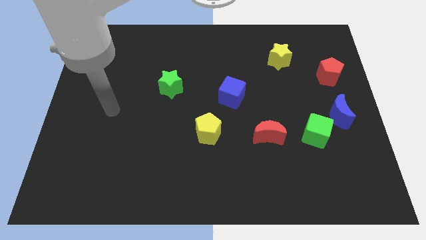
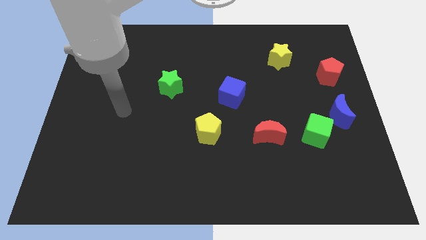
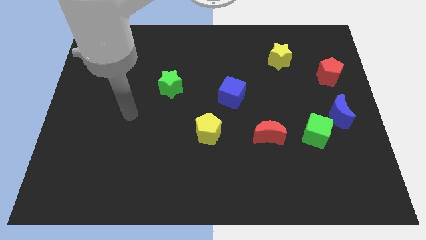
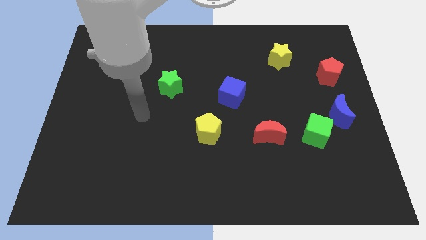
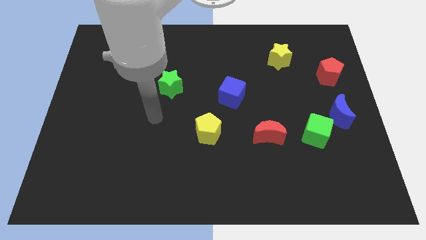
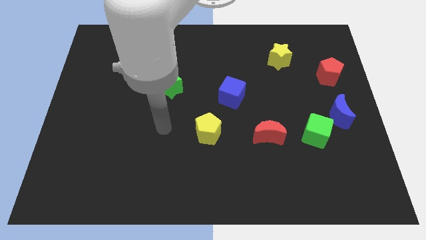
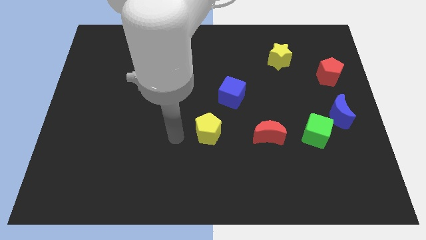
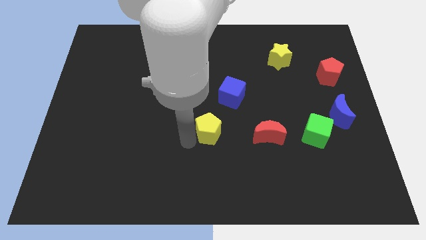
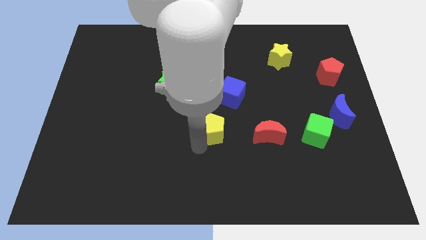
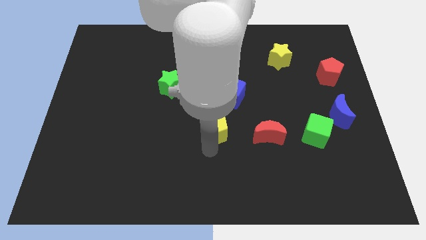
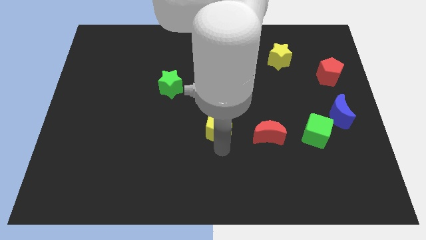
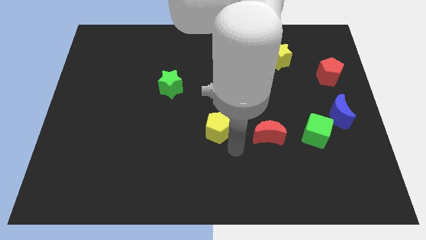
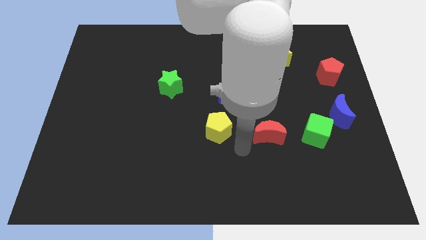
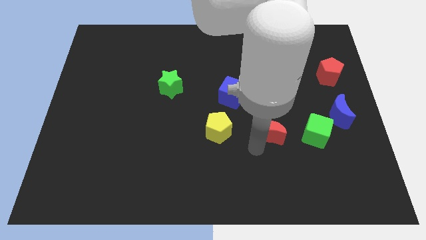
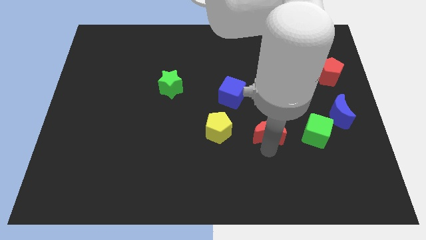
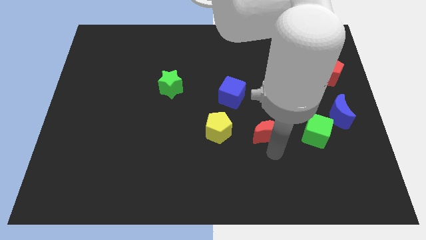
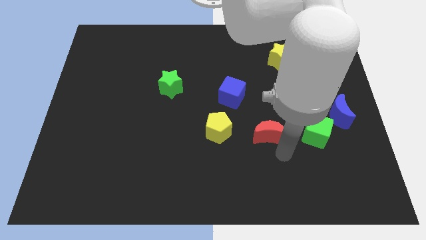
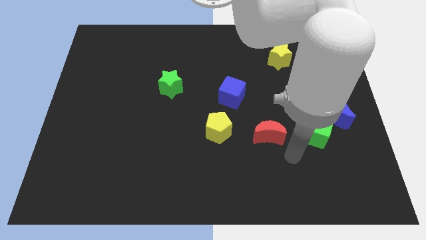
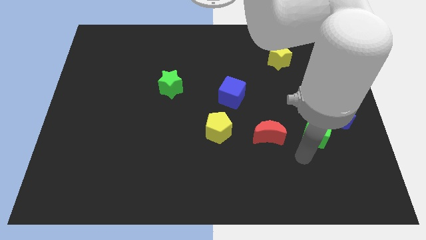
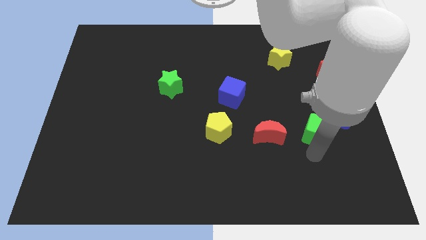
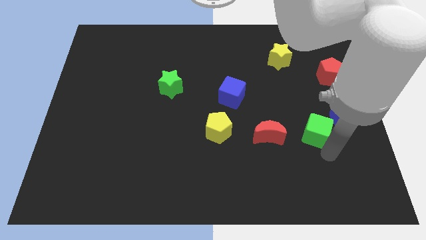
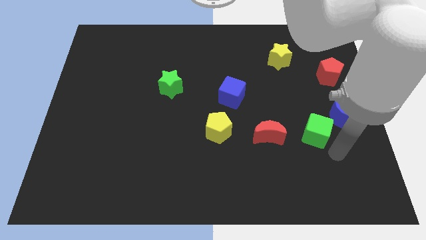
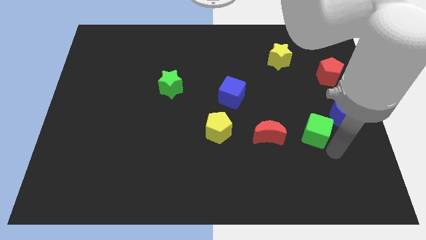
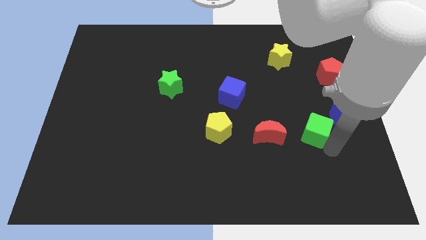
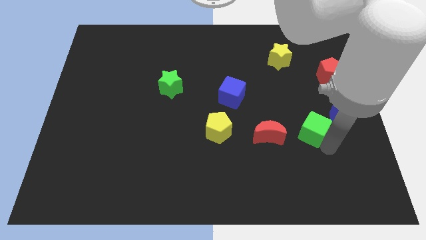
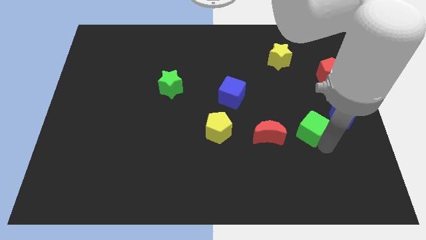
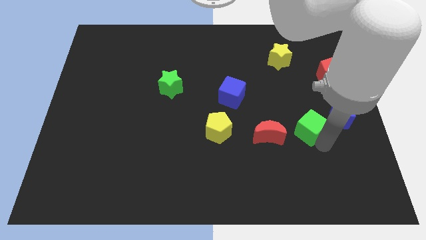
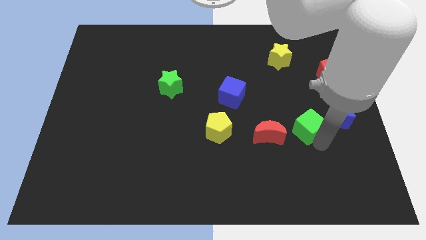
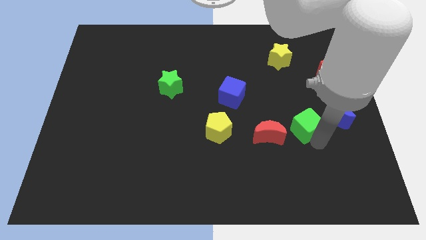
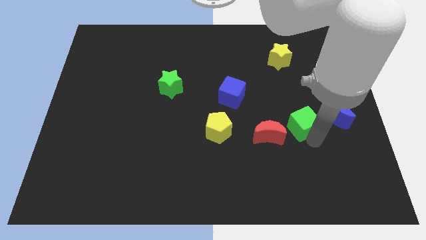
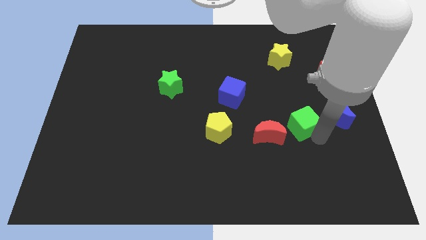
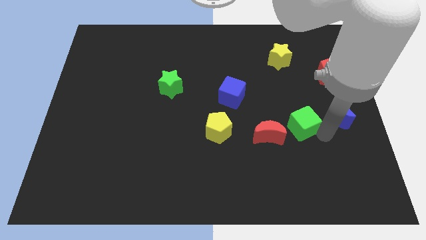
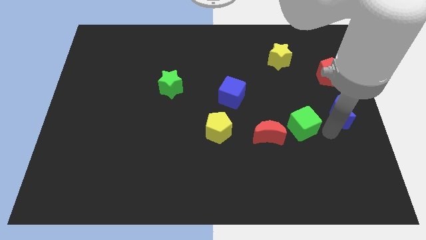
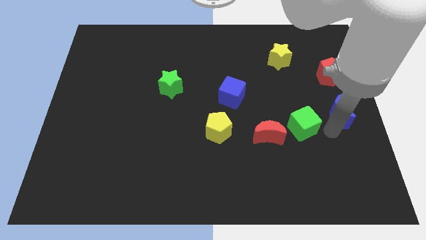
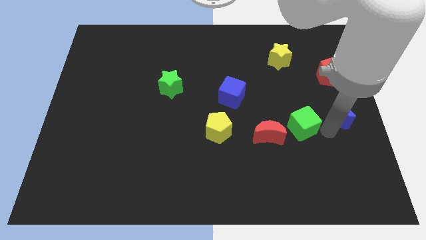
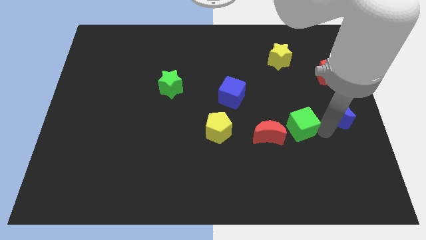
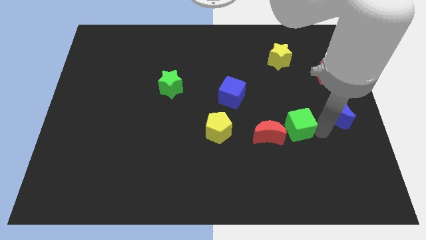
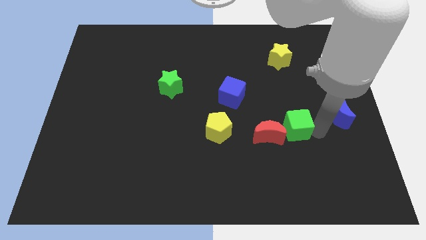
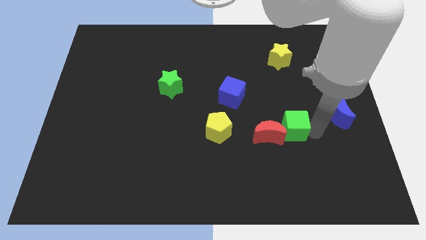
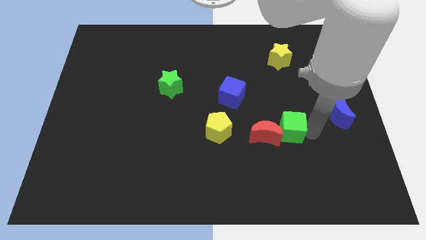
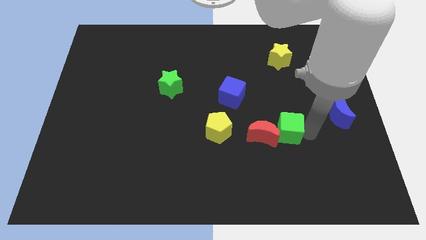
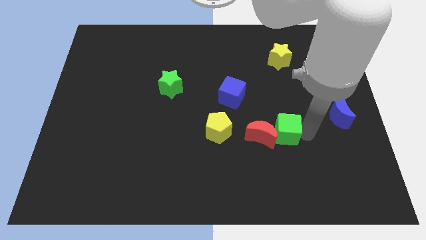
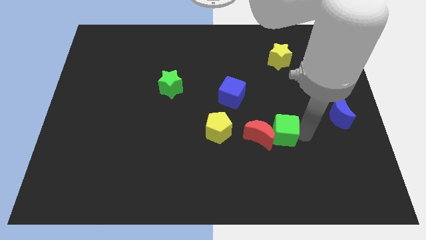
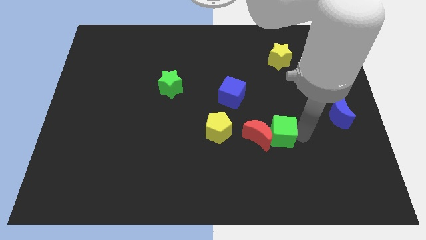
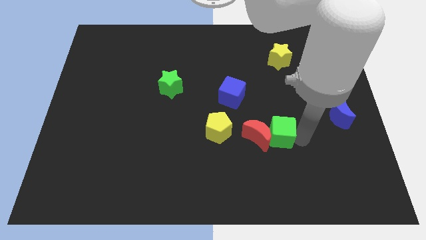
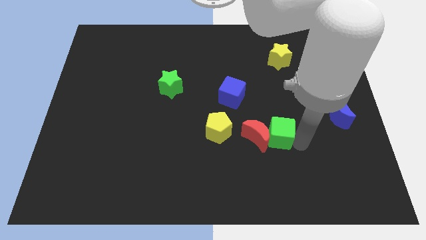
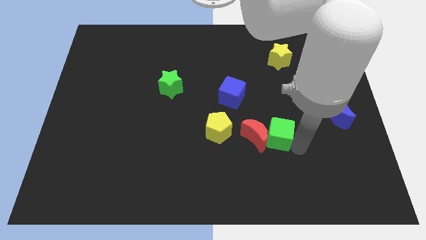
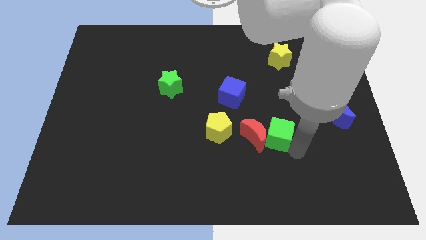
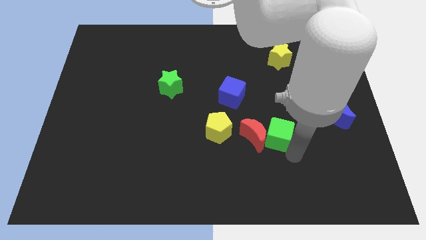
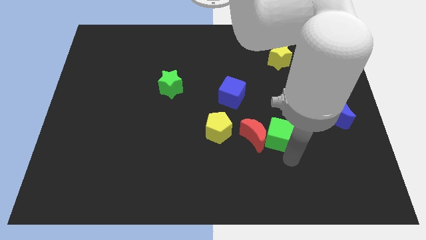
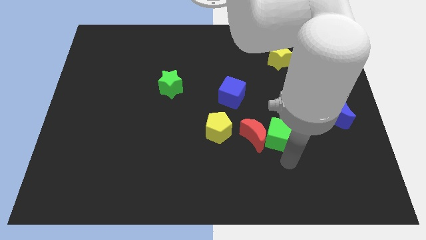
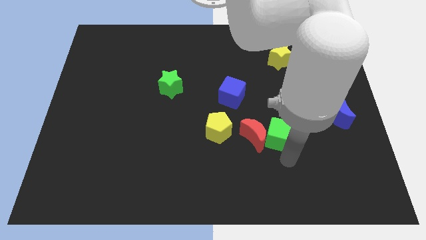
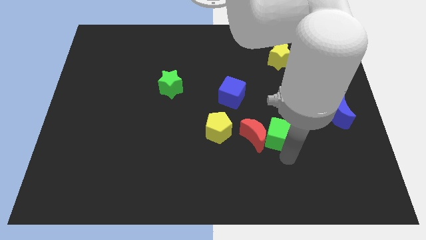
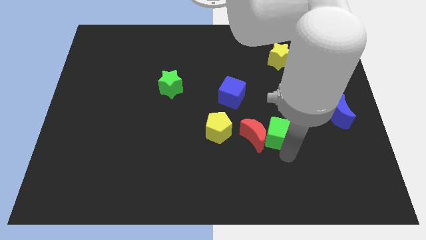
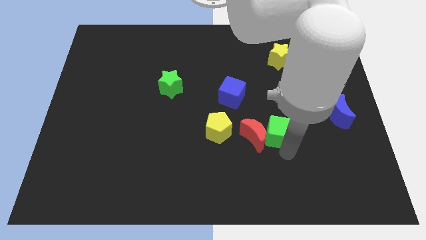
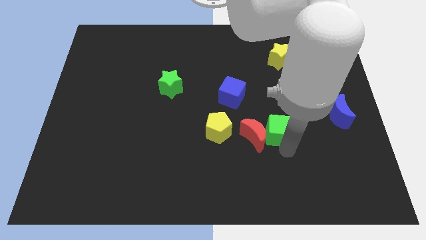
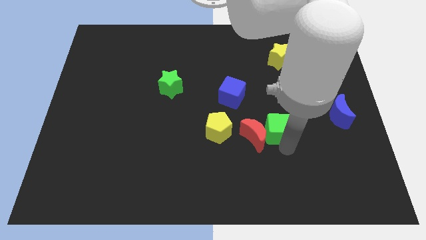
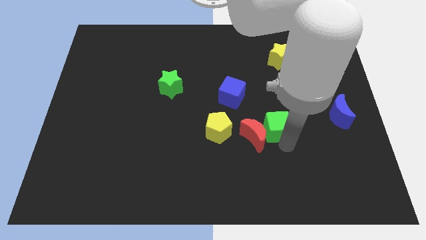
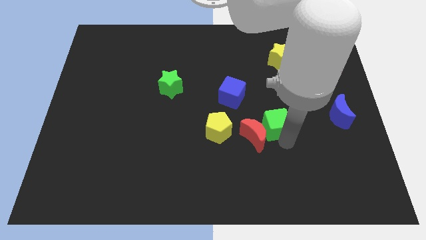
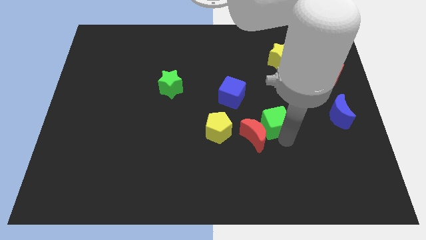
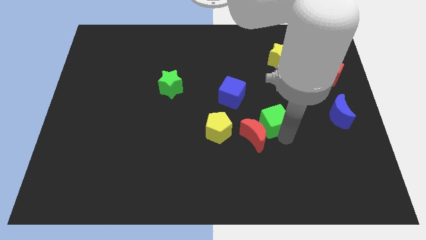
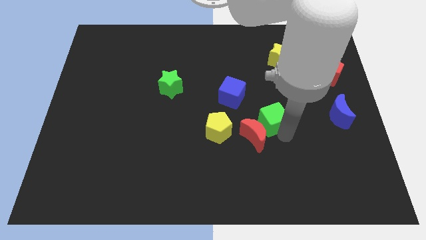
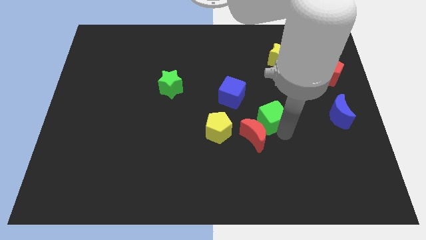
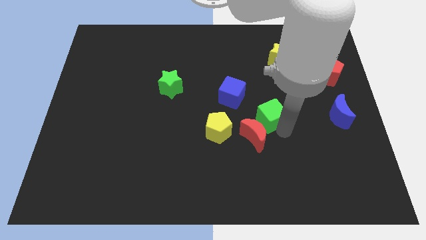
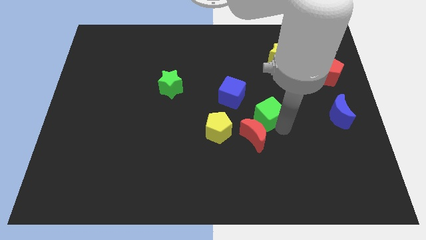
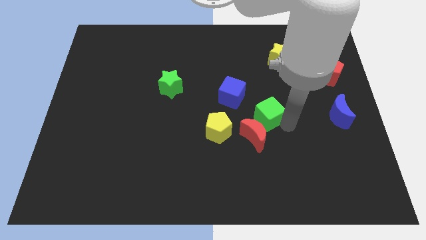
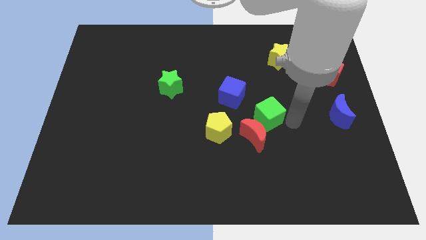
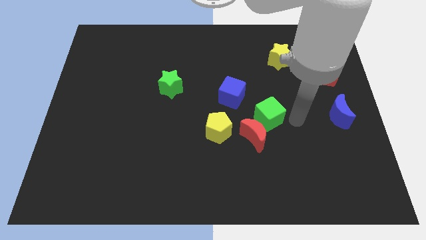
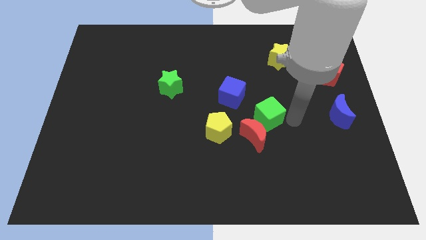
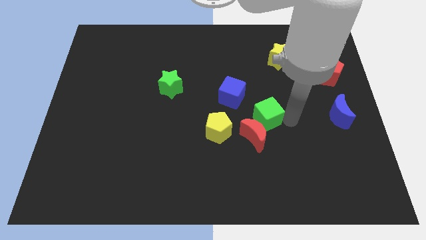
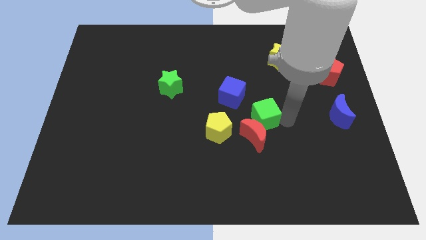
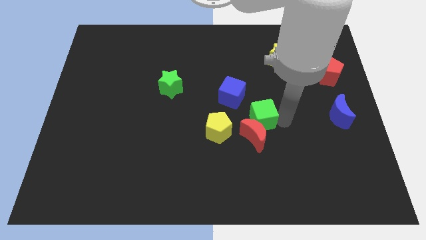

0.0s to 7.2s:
move the green cube to the middle
